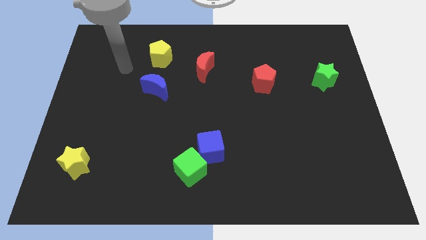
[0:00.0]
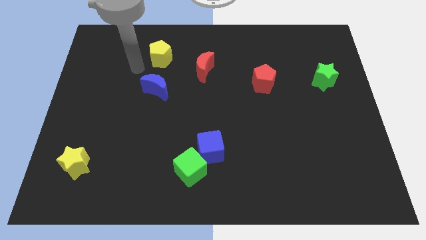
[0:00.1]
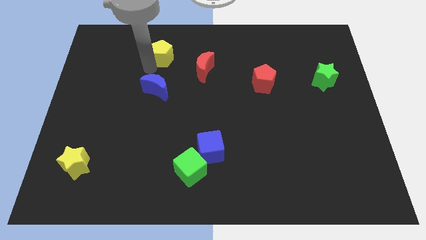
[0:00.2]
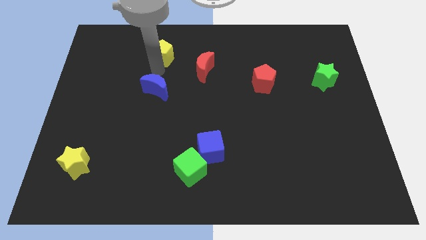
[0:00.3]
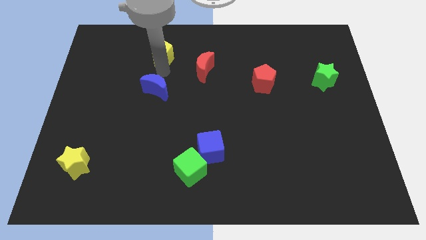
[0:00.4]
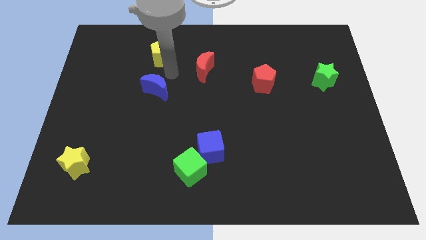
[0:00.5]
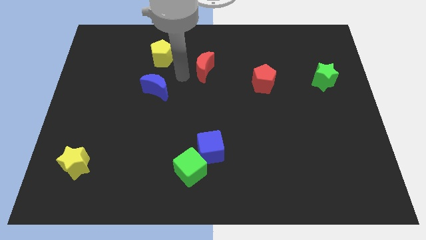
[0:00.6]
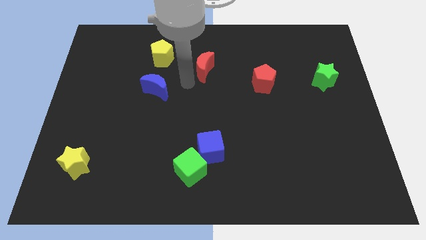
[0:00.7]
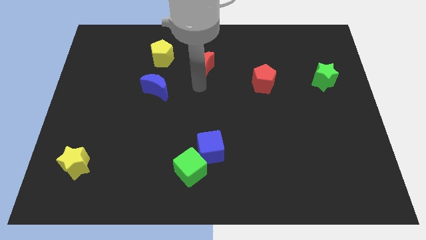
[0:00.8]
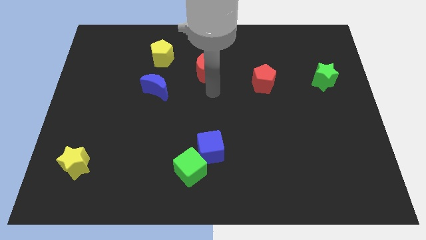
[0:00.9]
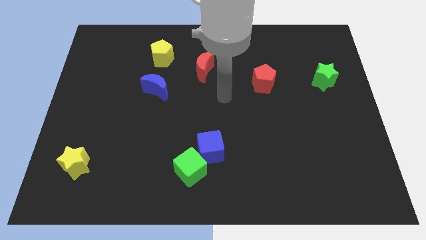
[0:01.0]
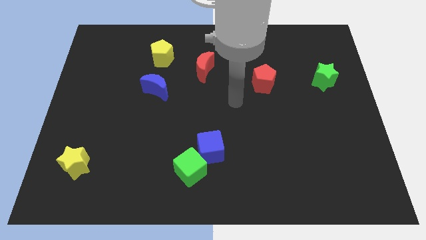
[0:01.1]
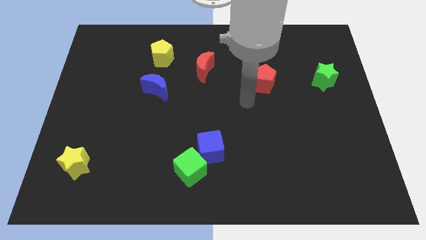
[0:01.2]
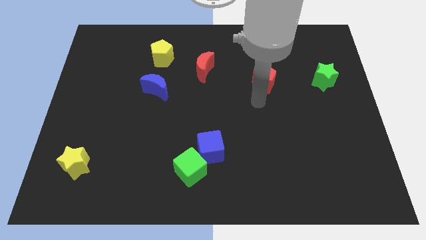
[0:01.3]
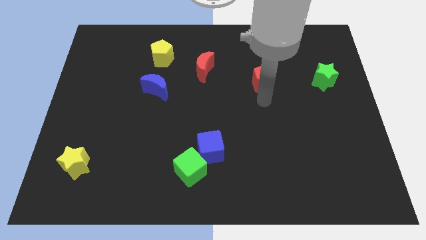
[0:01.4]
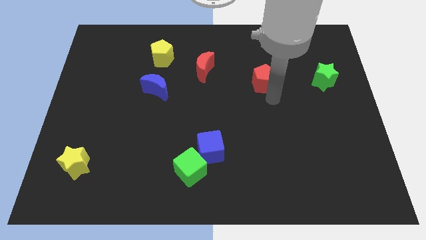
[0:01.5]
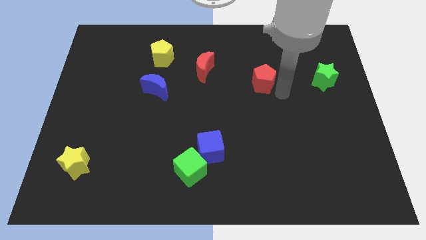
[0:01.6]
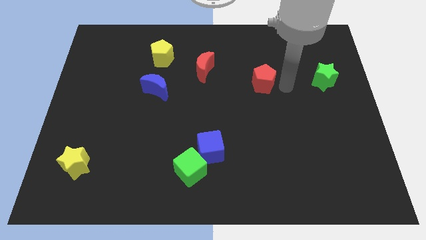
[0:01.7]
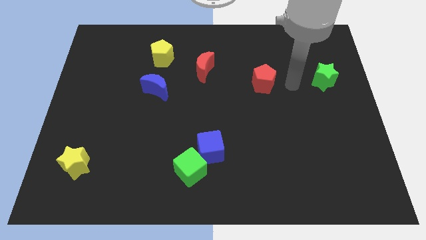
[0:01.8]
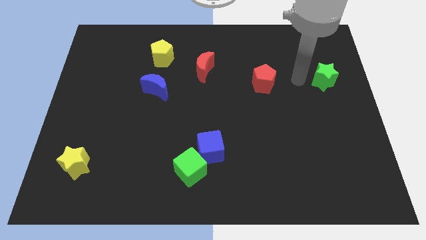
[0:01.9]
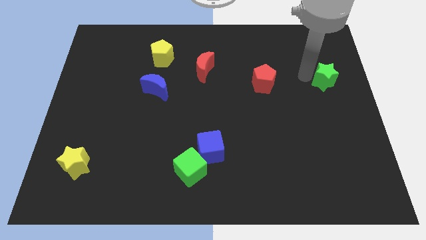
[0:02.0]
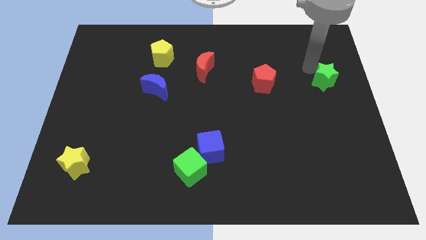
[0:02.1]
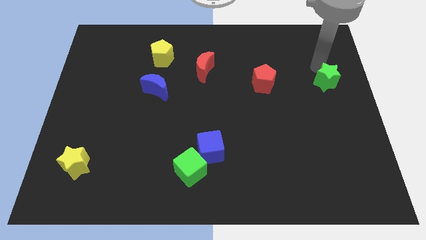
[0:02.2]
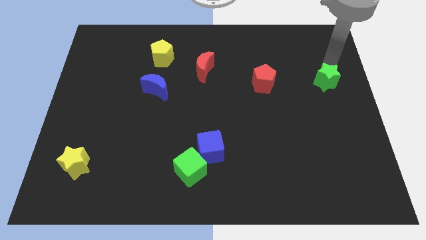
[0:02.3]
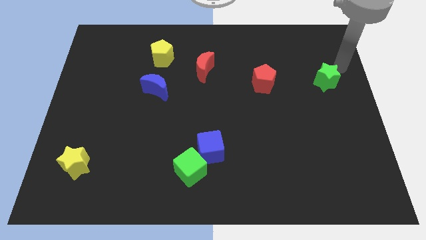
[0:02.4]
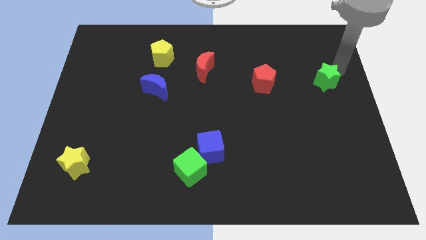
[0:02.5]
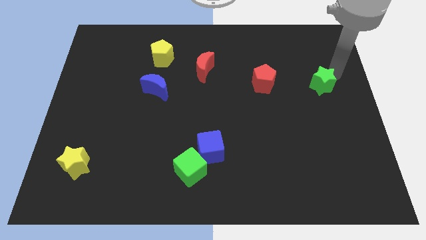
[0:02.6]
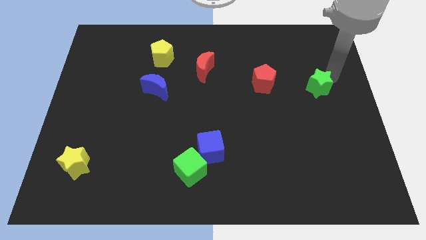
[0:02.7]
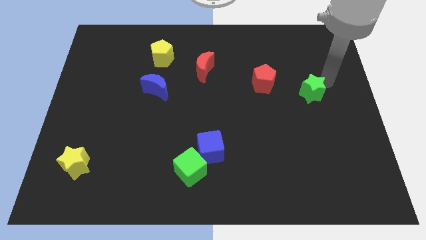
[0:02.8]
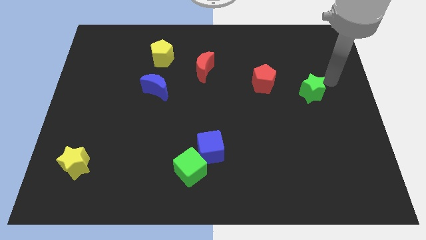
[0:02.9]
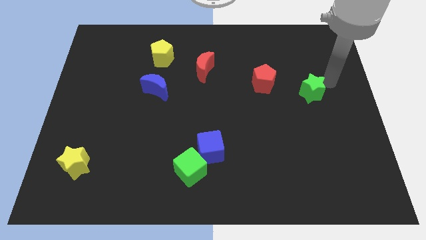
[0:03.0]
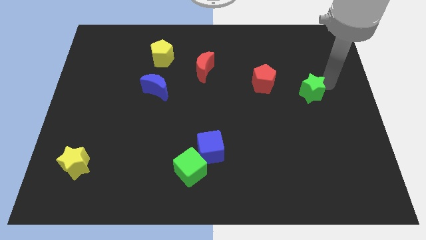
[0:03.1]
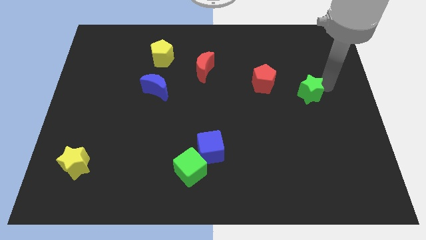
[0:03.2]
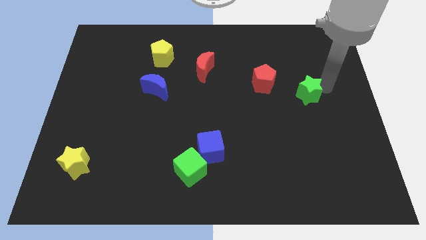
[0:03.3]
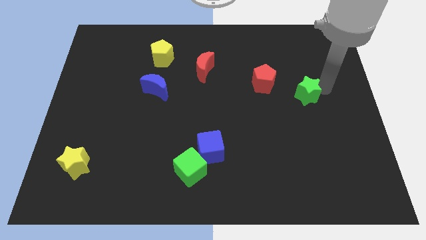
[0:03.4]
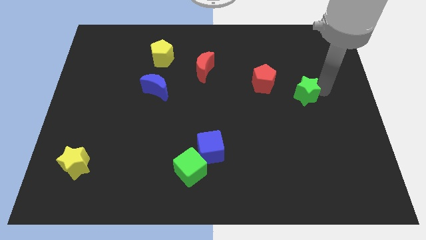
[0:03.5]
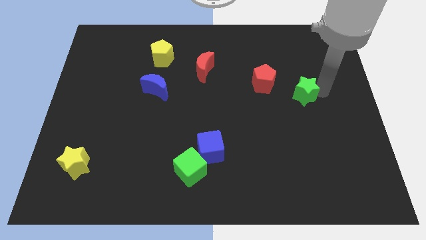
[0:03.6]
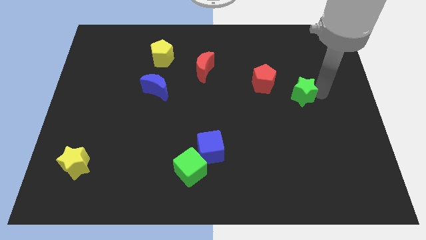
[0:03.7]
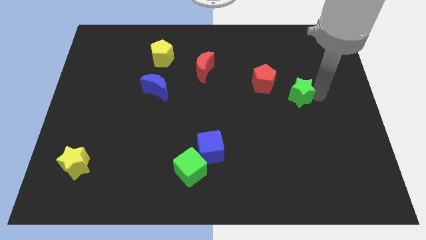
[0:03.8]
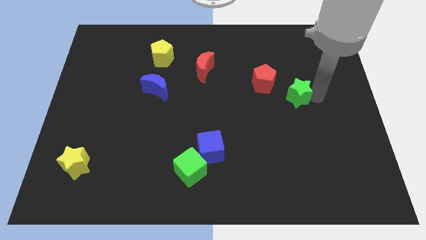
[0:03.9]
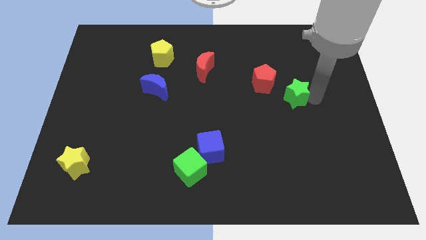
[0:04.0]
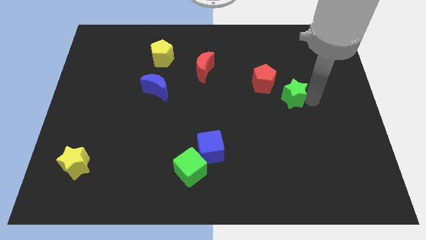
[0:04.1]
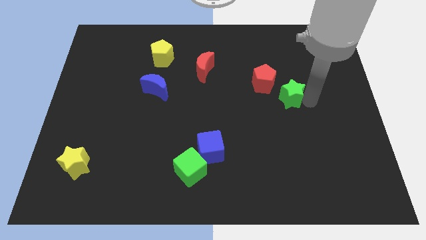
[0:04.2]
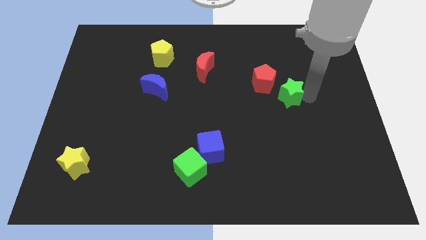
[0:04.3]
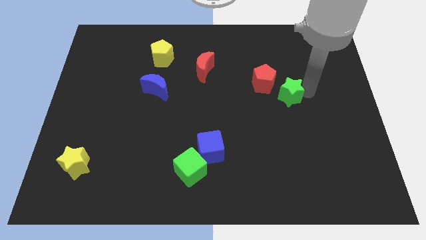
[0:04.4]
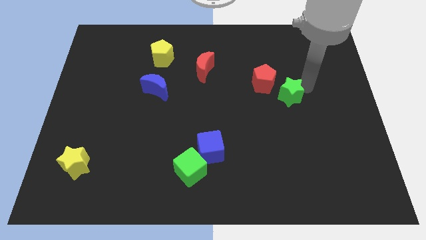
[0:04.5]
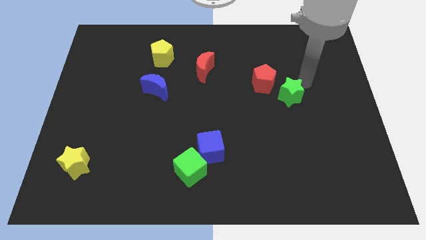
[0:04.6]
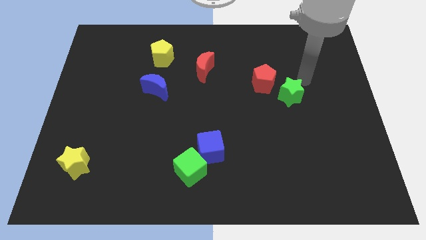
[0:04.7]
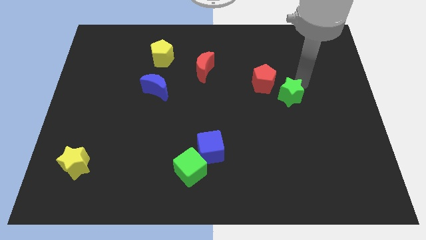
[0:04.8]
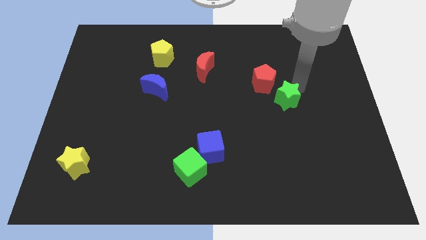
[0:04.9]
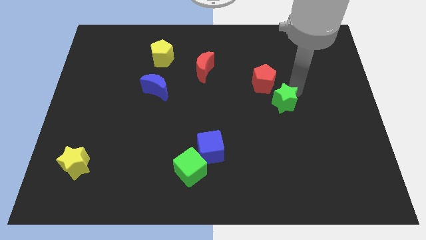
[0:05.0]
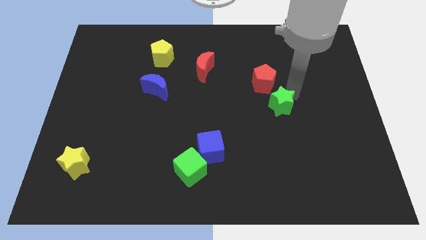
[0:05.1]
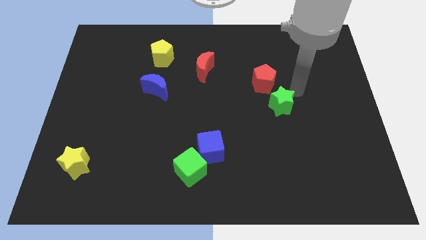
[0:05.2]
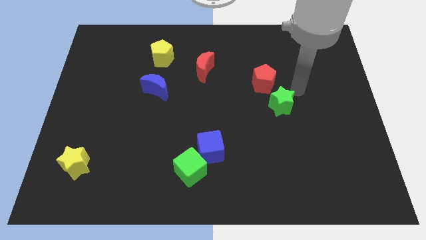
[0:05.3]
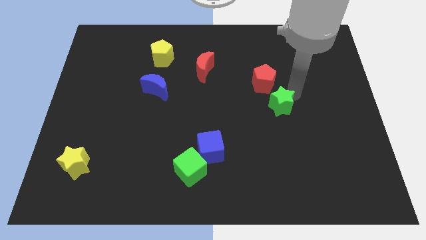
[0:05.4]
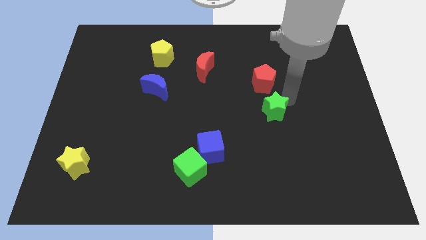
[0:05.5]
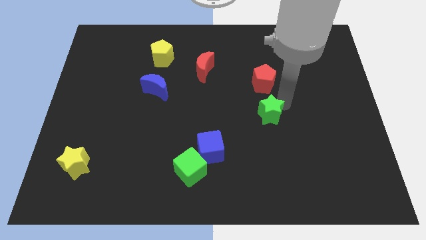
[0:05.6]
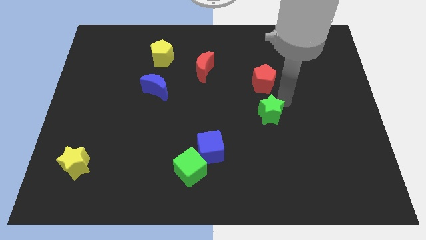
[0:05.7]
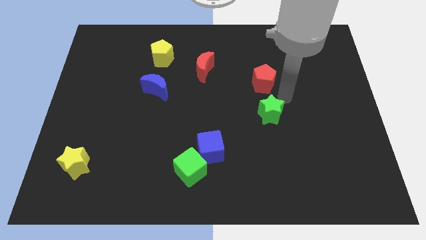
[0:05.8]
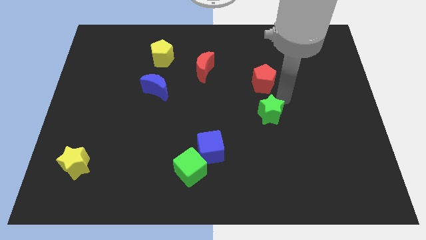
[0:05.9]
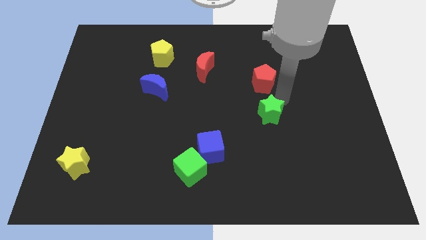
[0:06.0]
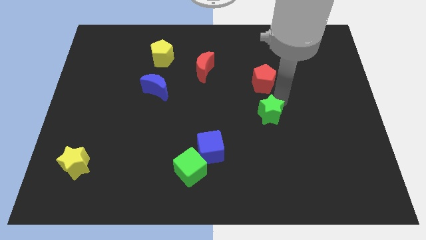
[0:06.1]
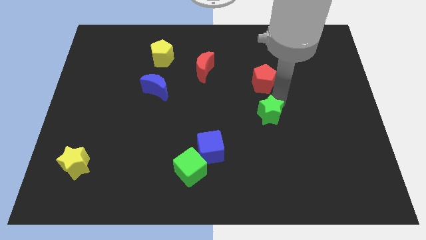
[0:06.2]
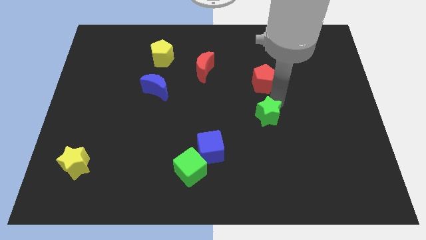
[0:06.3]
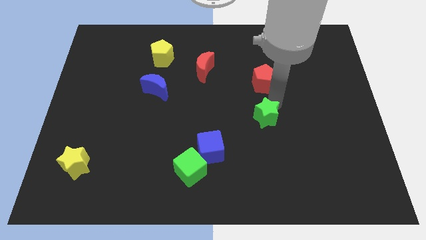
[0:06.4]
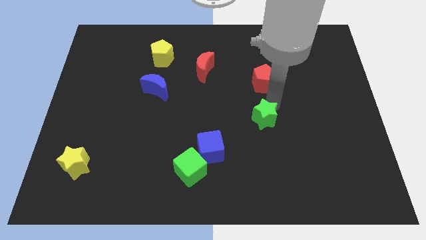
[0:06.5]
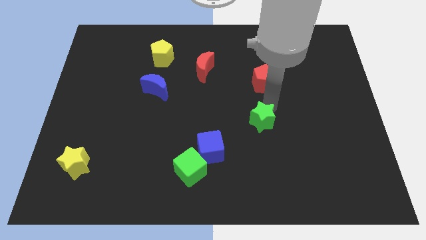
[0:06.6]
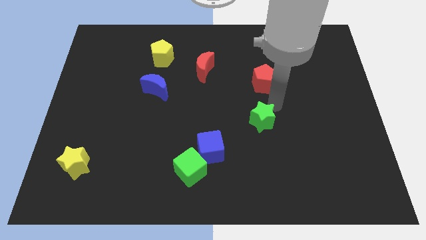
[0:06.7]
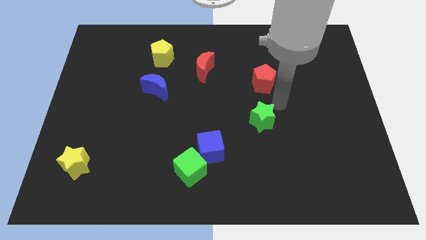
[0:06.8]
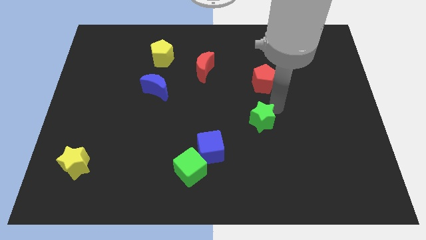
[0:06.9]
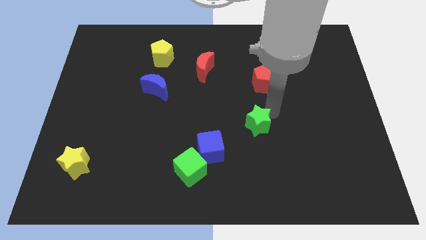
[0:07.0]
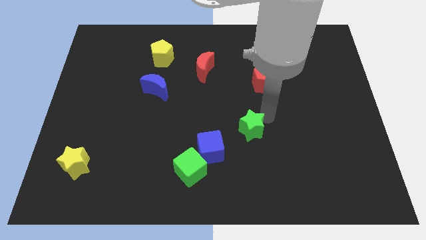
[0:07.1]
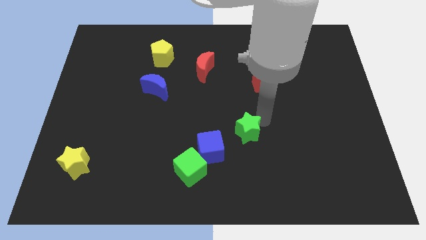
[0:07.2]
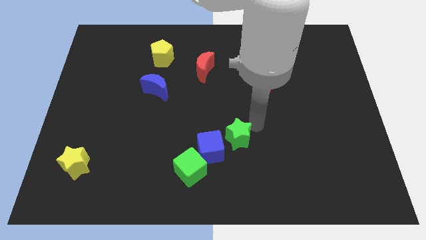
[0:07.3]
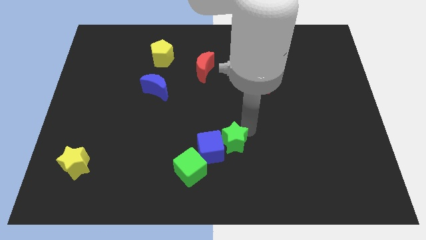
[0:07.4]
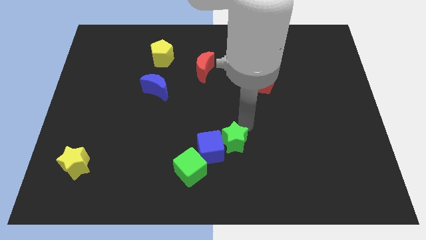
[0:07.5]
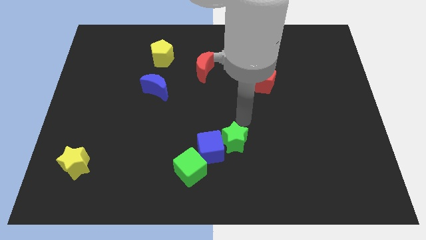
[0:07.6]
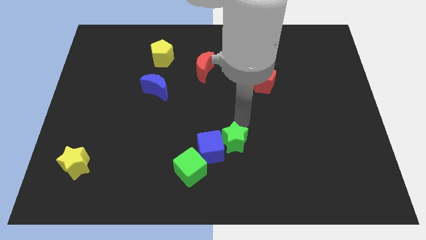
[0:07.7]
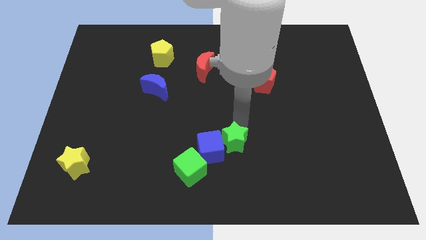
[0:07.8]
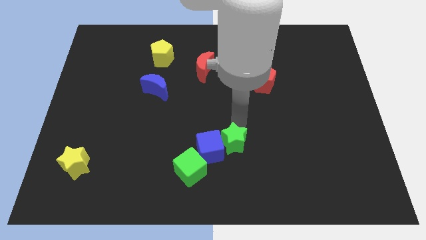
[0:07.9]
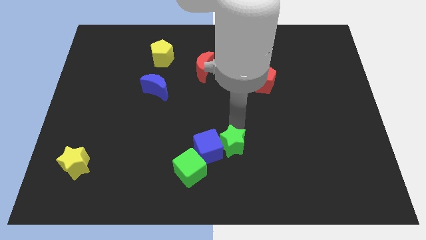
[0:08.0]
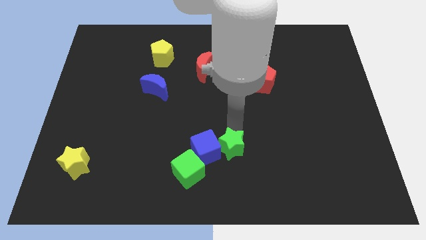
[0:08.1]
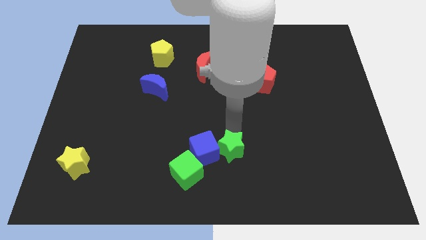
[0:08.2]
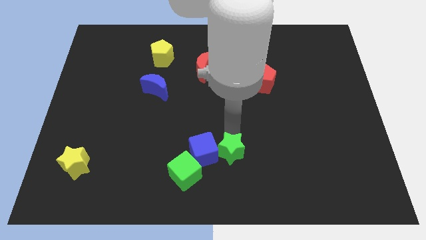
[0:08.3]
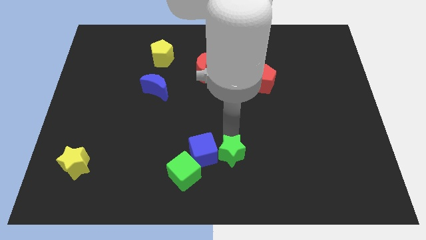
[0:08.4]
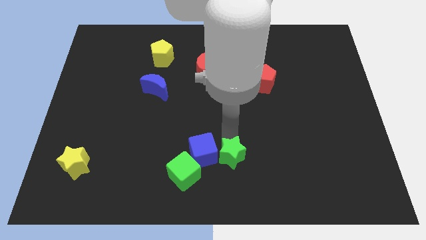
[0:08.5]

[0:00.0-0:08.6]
push the green star to the bottom
